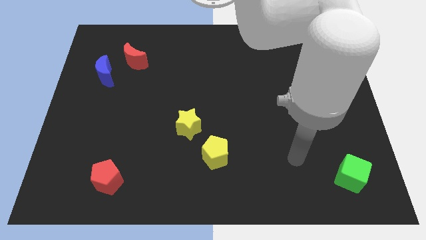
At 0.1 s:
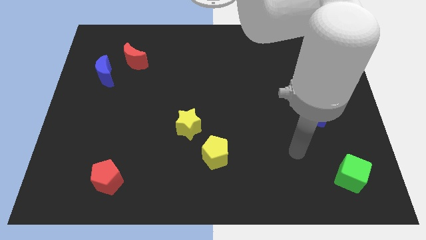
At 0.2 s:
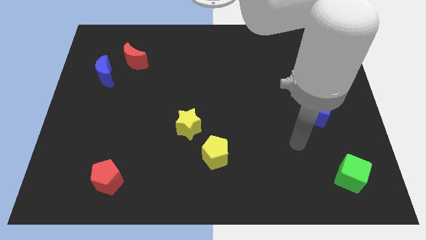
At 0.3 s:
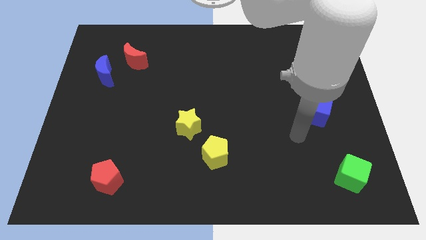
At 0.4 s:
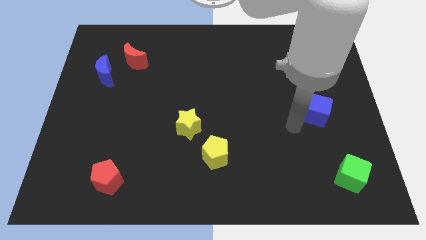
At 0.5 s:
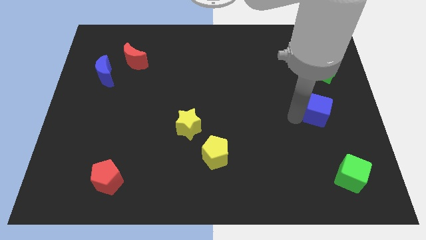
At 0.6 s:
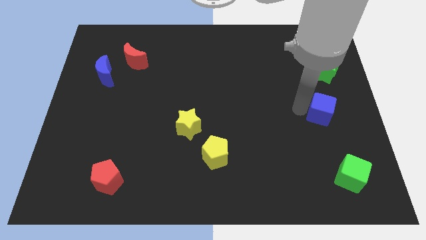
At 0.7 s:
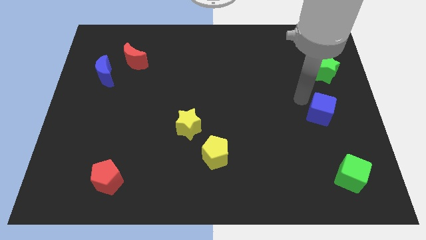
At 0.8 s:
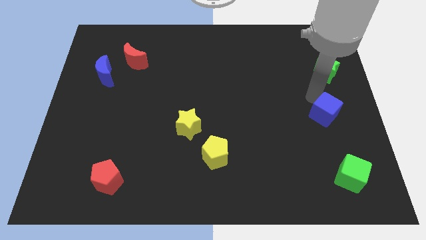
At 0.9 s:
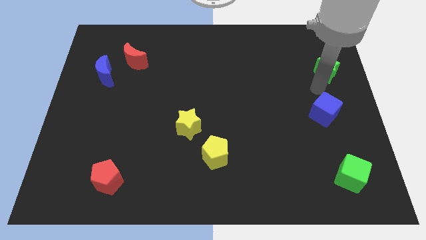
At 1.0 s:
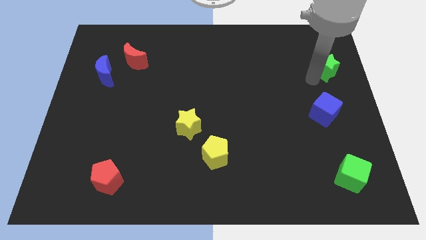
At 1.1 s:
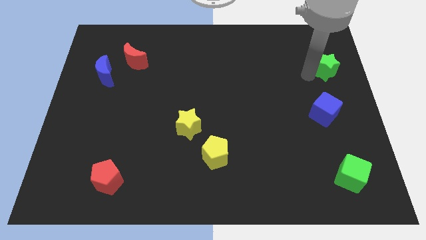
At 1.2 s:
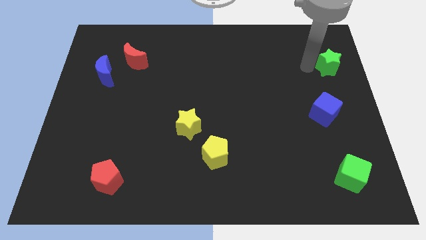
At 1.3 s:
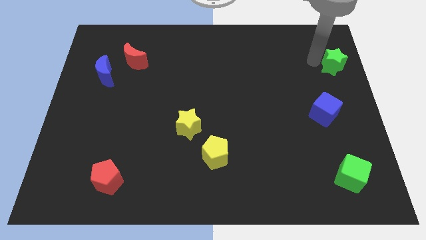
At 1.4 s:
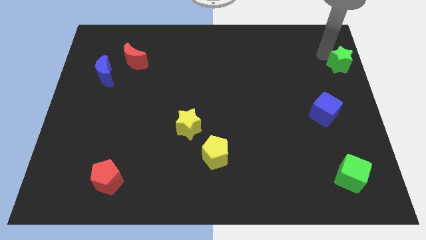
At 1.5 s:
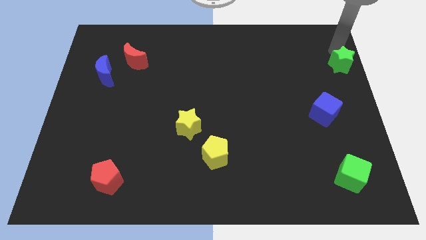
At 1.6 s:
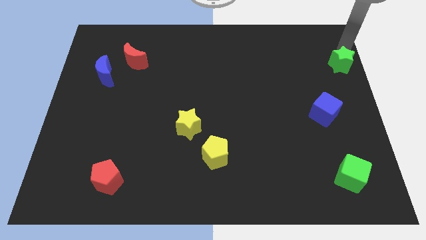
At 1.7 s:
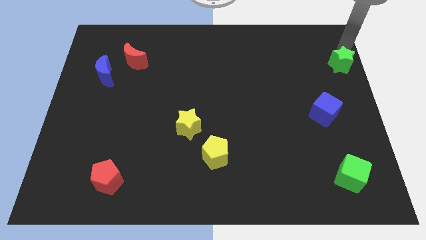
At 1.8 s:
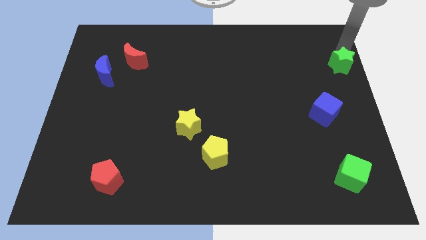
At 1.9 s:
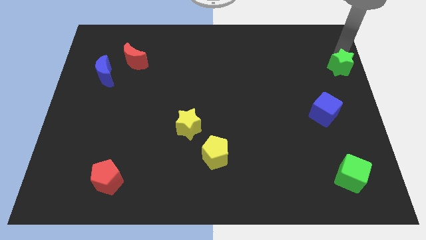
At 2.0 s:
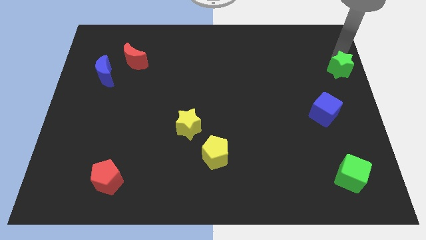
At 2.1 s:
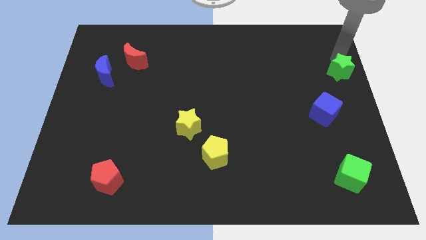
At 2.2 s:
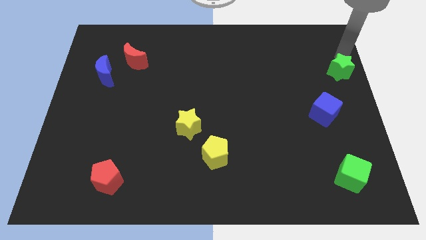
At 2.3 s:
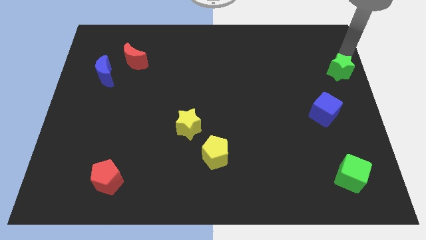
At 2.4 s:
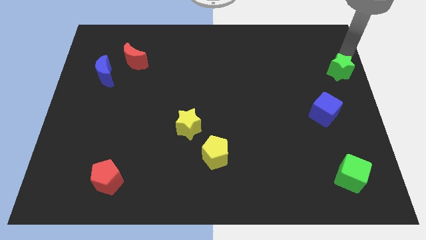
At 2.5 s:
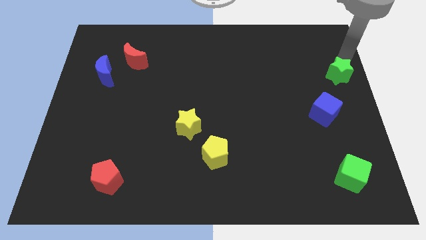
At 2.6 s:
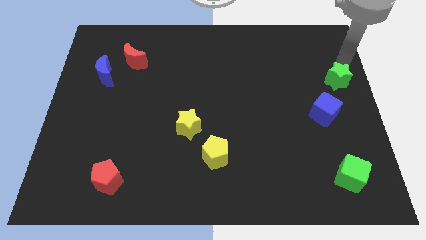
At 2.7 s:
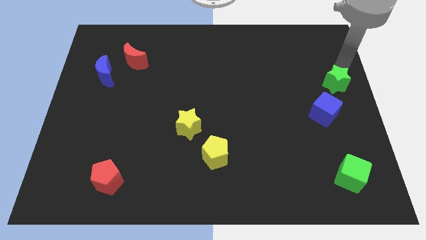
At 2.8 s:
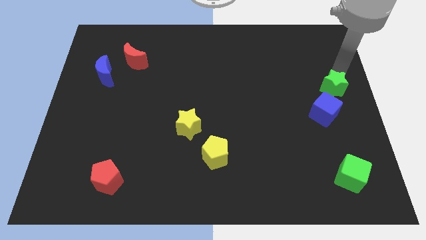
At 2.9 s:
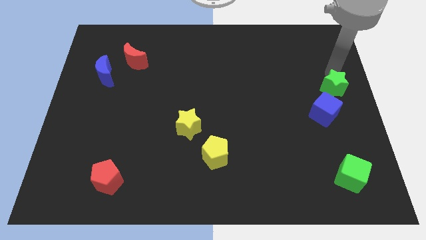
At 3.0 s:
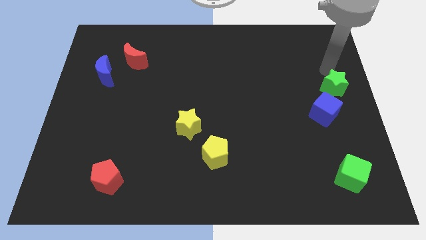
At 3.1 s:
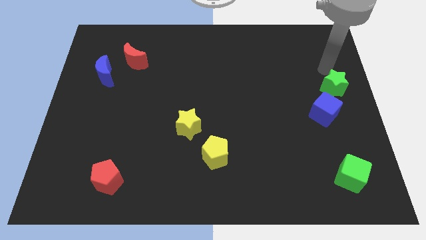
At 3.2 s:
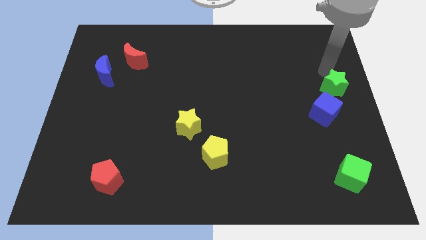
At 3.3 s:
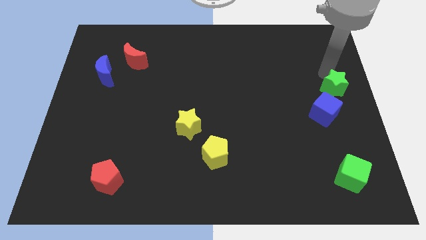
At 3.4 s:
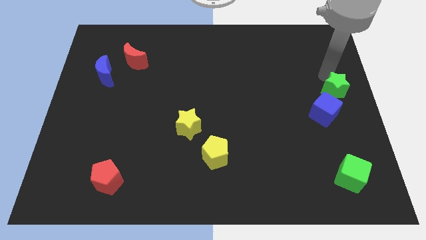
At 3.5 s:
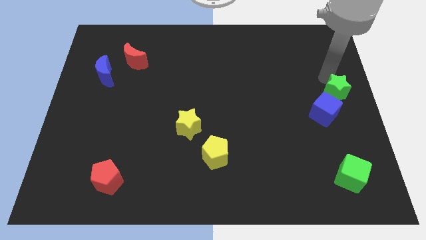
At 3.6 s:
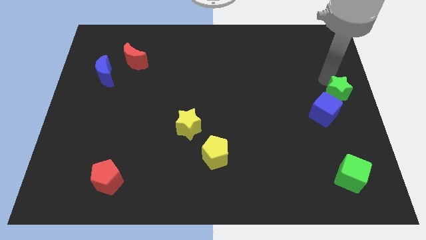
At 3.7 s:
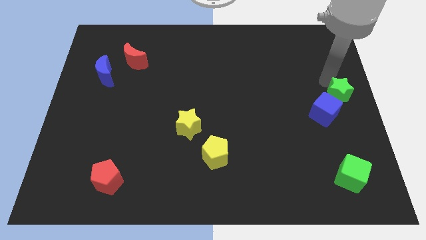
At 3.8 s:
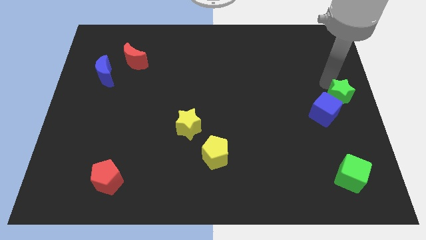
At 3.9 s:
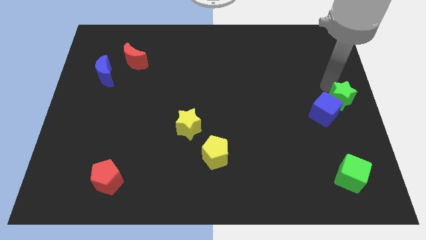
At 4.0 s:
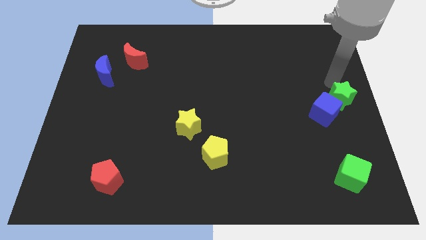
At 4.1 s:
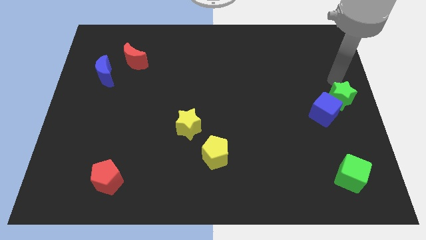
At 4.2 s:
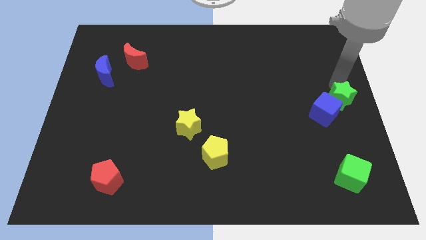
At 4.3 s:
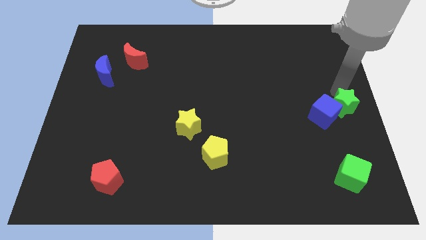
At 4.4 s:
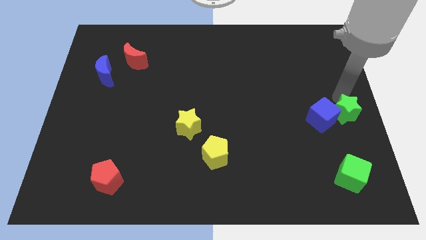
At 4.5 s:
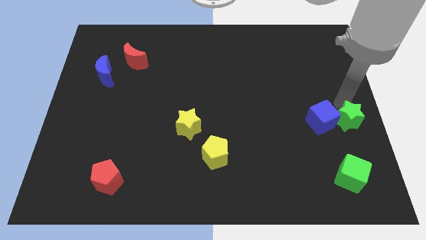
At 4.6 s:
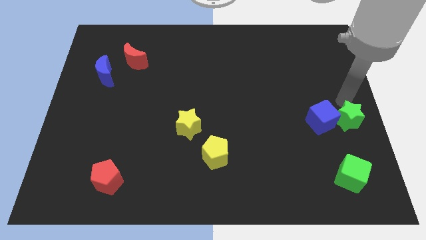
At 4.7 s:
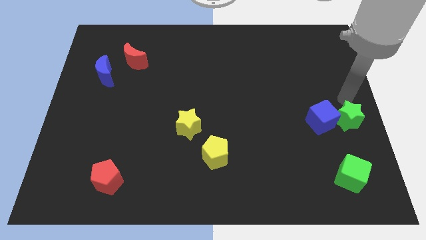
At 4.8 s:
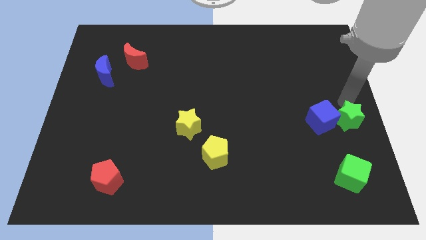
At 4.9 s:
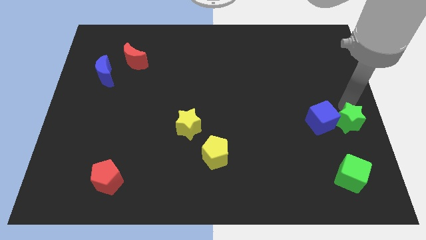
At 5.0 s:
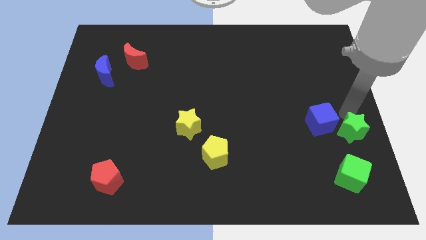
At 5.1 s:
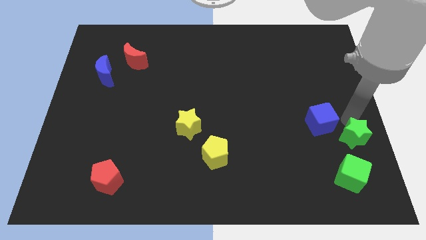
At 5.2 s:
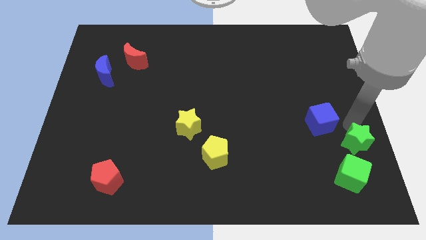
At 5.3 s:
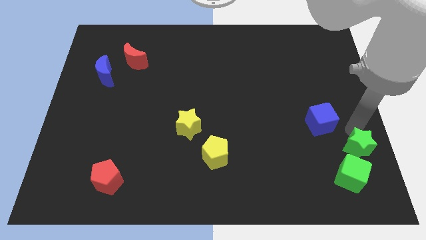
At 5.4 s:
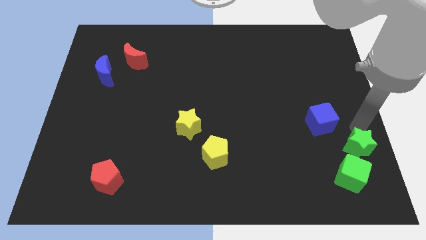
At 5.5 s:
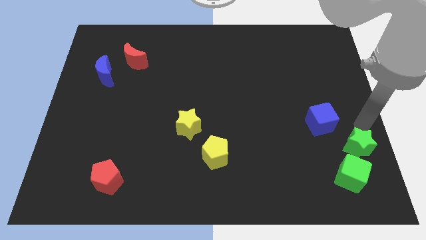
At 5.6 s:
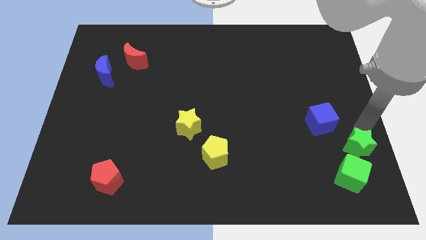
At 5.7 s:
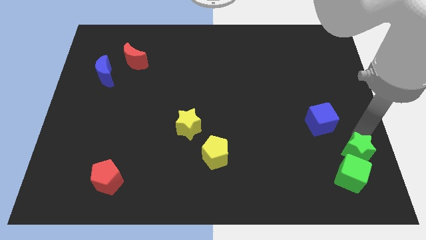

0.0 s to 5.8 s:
move the green star to the green cube

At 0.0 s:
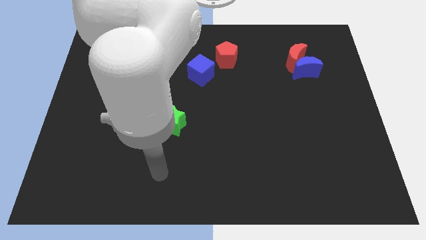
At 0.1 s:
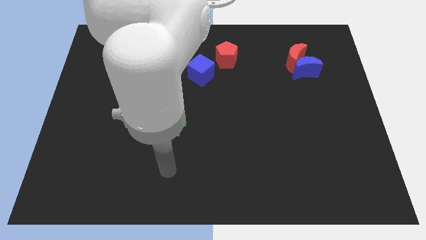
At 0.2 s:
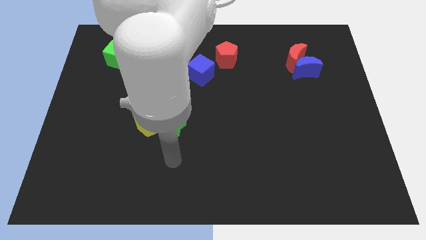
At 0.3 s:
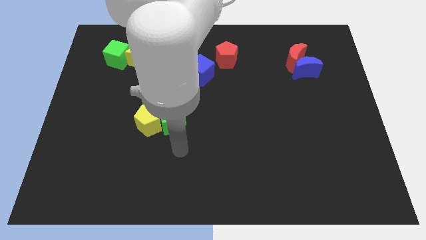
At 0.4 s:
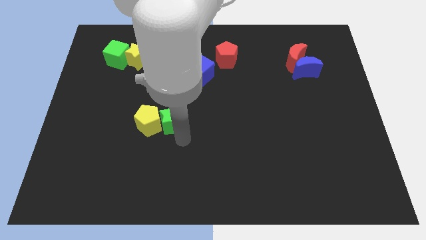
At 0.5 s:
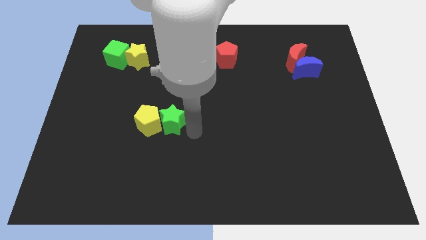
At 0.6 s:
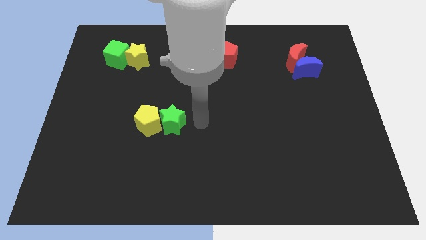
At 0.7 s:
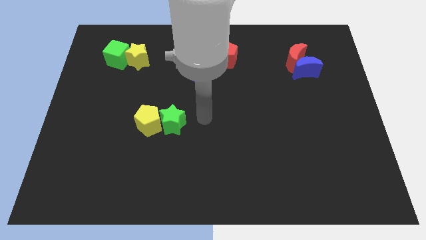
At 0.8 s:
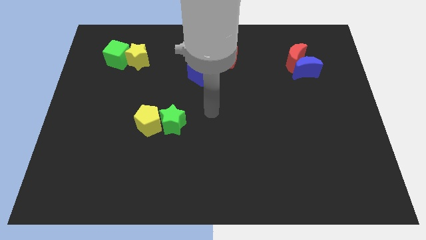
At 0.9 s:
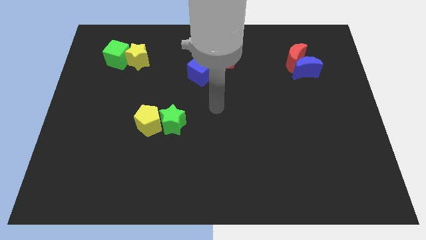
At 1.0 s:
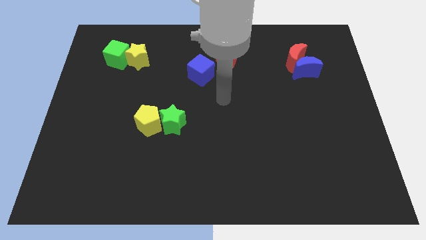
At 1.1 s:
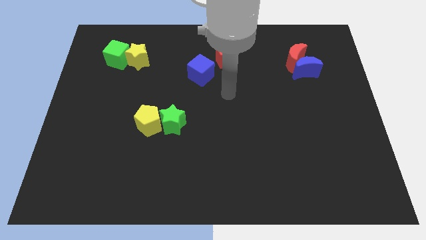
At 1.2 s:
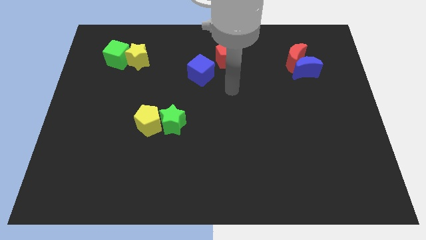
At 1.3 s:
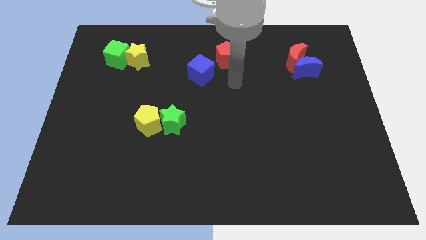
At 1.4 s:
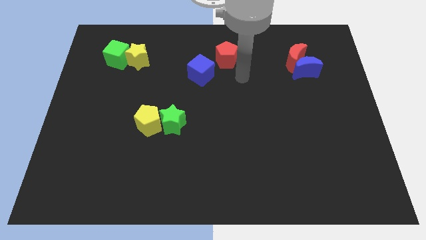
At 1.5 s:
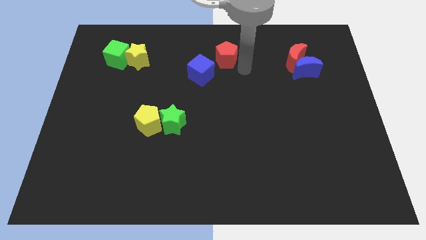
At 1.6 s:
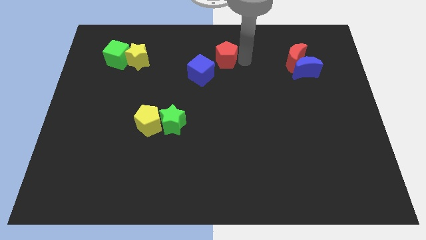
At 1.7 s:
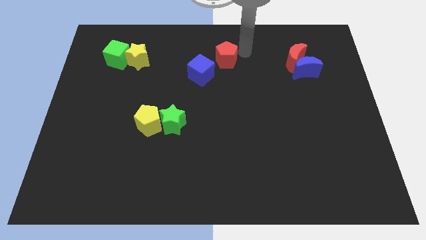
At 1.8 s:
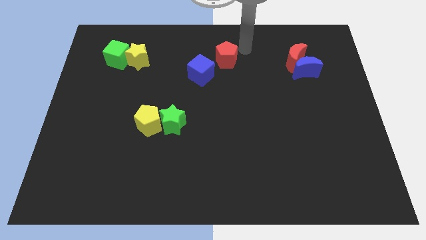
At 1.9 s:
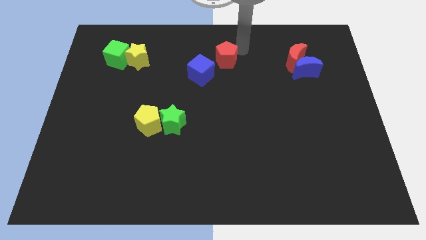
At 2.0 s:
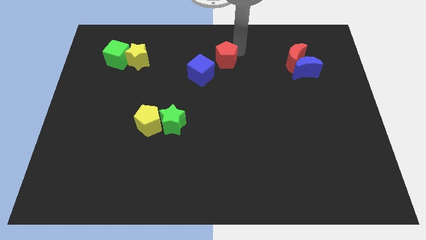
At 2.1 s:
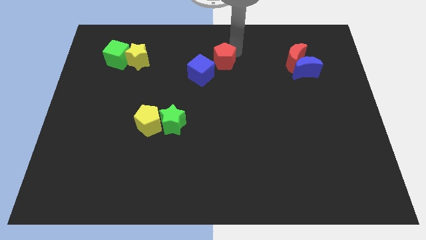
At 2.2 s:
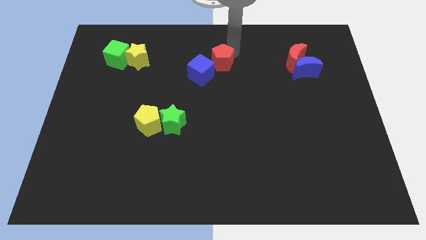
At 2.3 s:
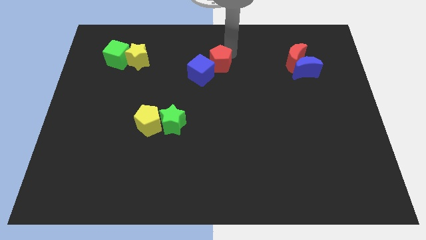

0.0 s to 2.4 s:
push the red pentagon to the blue cube
